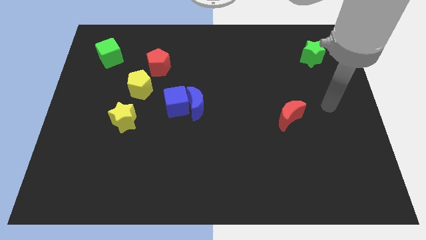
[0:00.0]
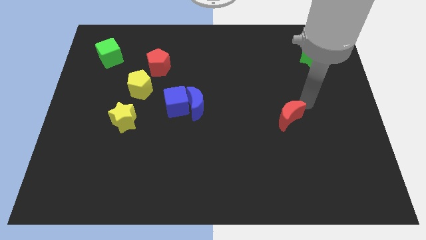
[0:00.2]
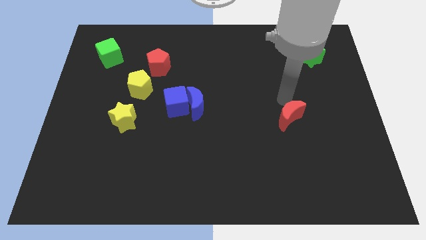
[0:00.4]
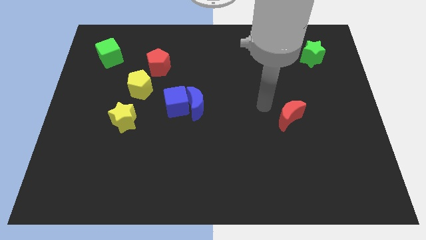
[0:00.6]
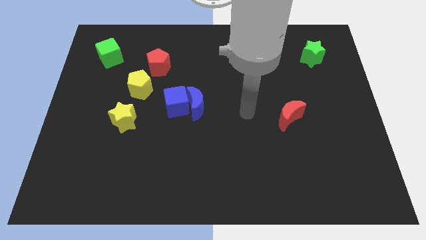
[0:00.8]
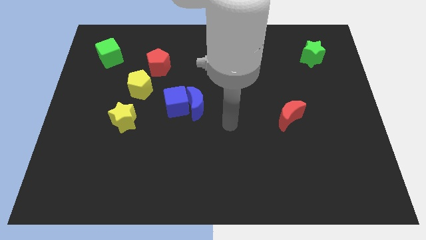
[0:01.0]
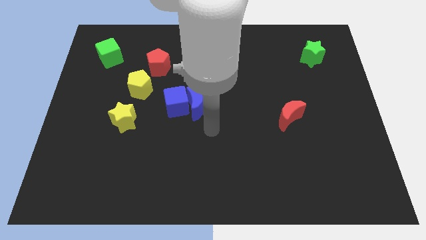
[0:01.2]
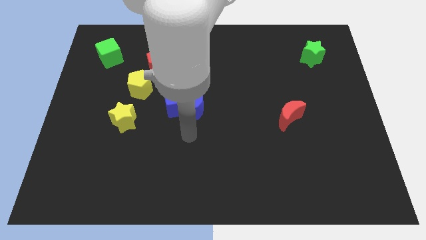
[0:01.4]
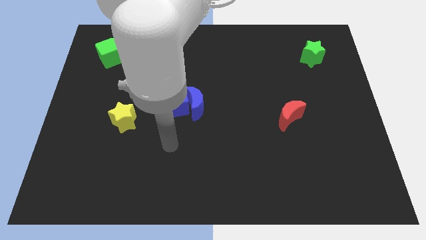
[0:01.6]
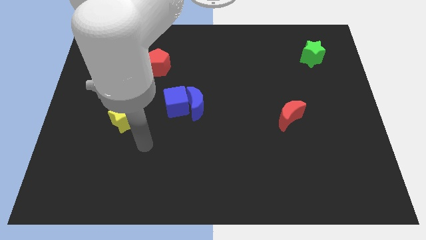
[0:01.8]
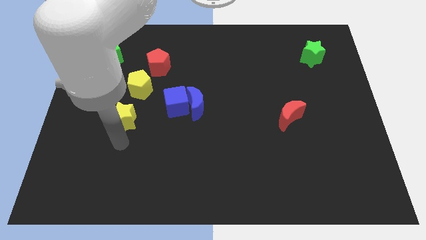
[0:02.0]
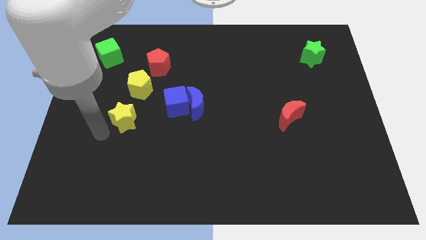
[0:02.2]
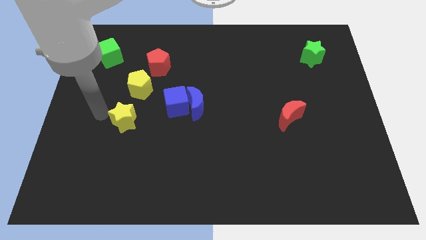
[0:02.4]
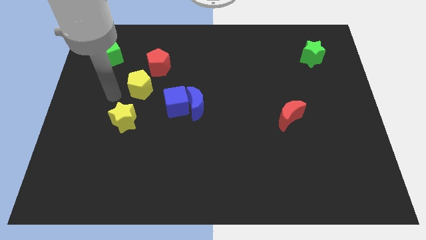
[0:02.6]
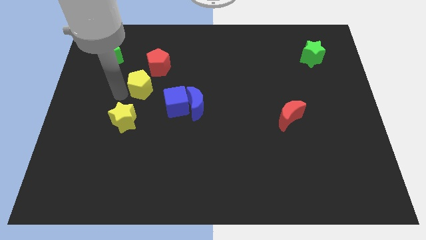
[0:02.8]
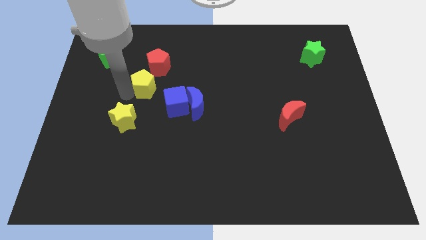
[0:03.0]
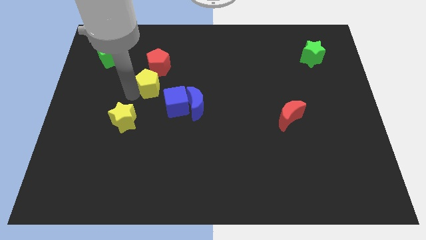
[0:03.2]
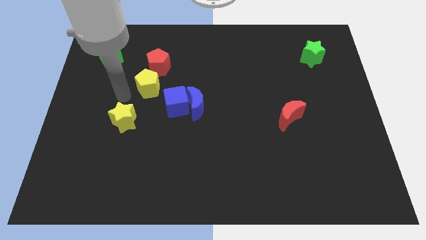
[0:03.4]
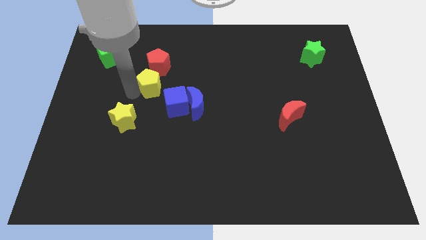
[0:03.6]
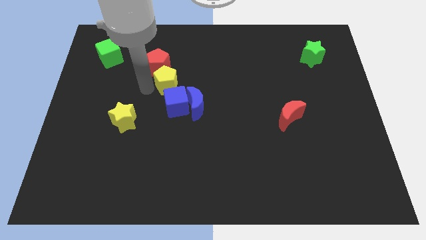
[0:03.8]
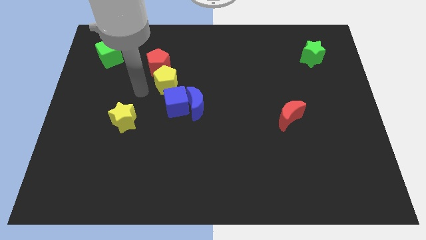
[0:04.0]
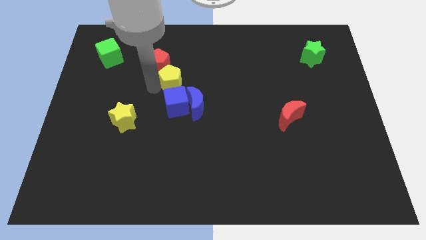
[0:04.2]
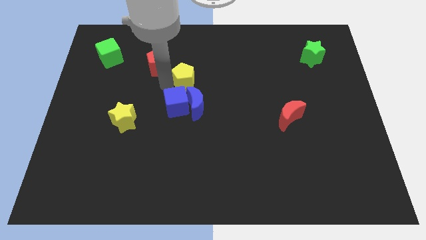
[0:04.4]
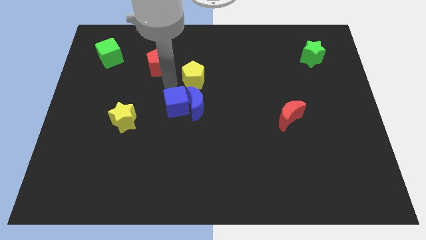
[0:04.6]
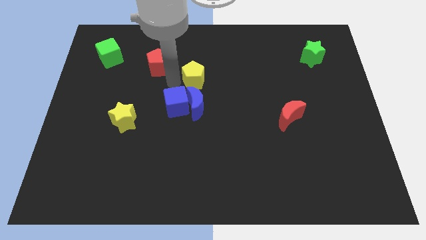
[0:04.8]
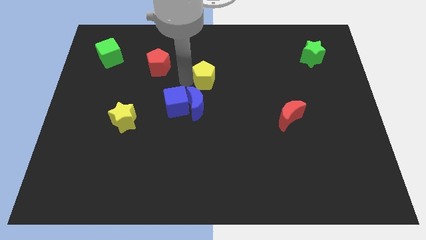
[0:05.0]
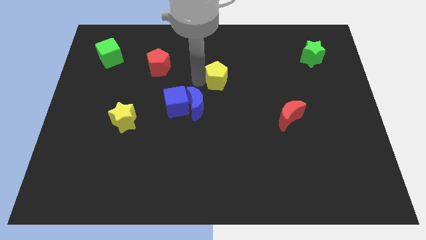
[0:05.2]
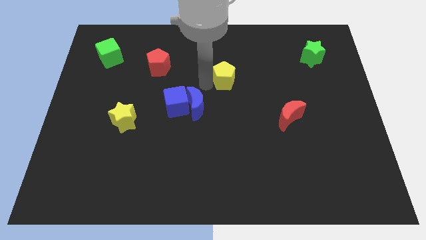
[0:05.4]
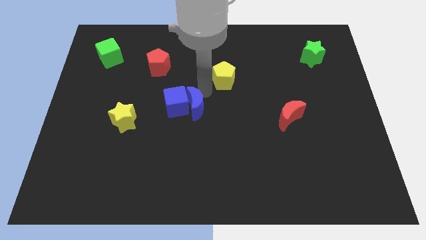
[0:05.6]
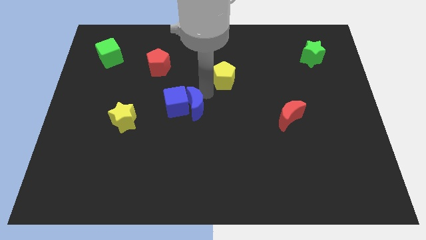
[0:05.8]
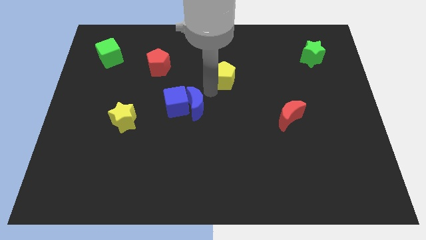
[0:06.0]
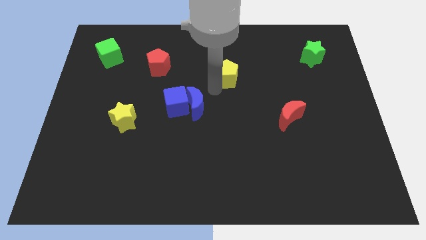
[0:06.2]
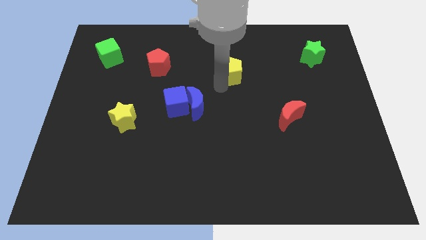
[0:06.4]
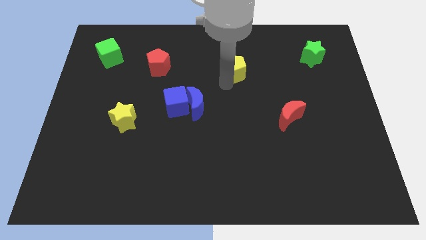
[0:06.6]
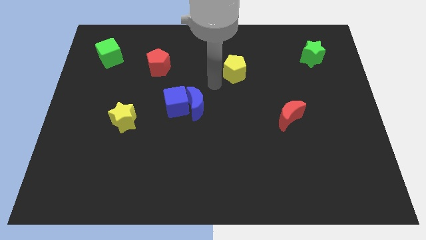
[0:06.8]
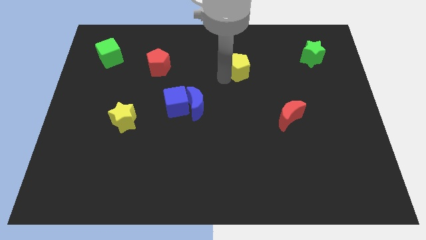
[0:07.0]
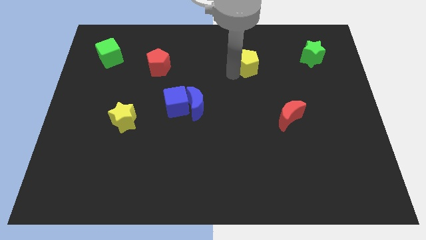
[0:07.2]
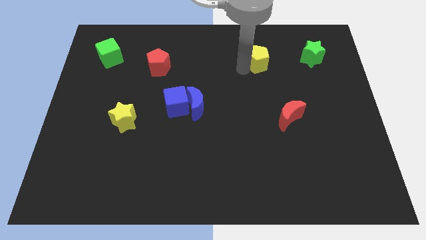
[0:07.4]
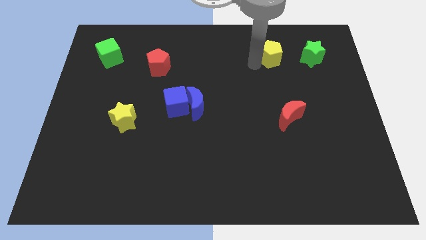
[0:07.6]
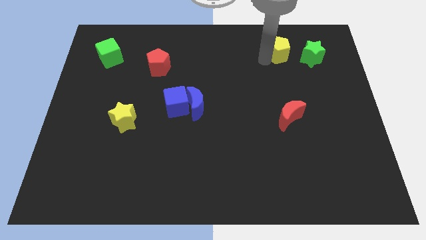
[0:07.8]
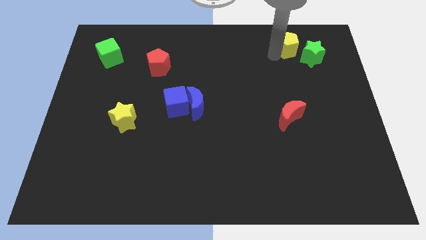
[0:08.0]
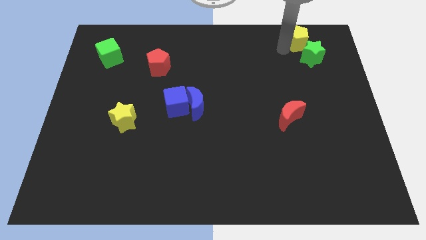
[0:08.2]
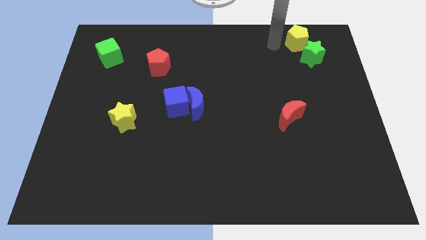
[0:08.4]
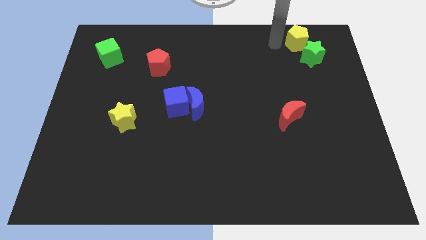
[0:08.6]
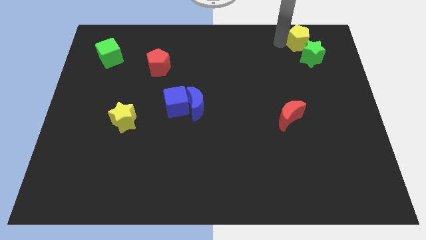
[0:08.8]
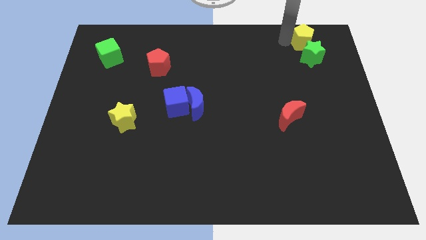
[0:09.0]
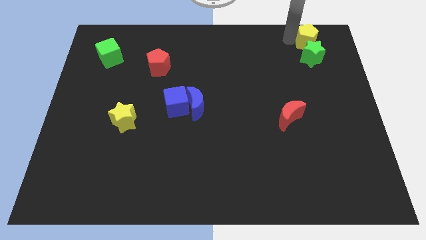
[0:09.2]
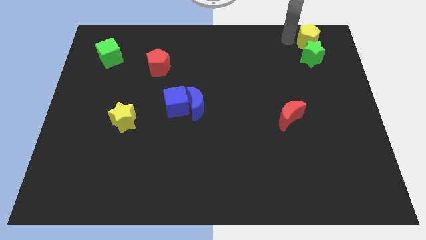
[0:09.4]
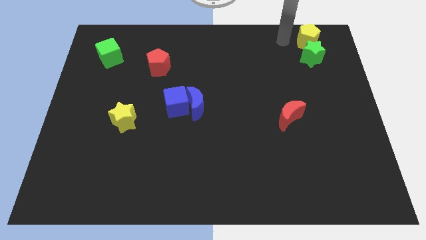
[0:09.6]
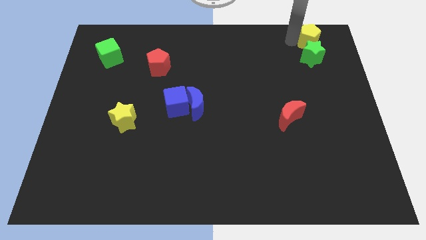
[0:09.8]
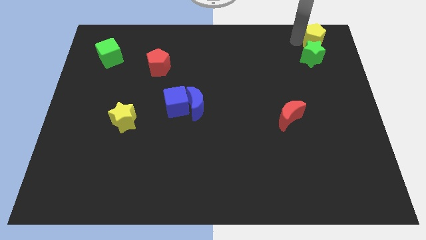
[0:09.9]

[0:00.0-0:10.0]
put the yellow pentagon to the upper right corner
